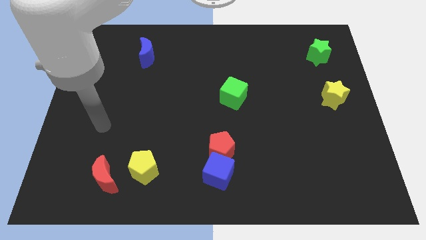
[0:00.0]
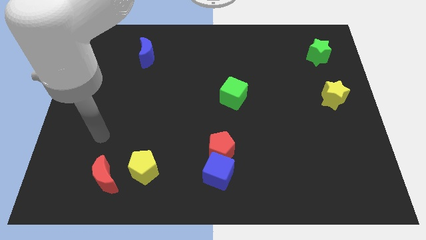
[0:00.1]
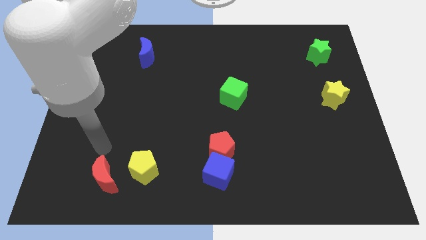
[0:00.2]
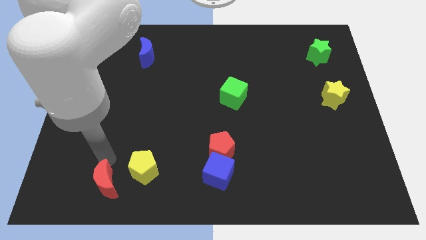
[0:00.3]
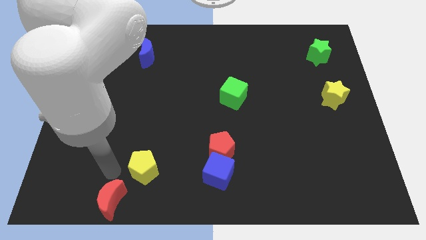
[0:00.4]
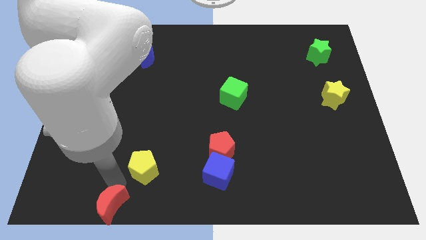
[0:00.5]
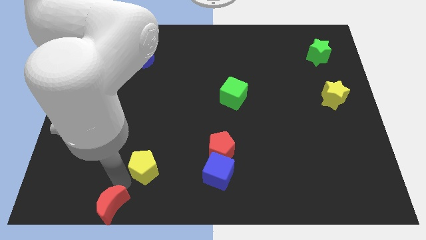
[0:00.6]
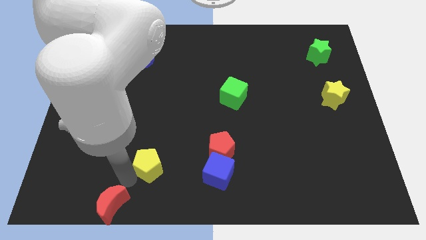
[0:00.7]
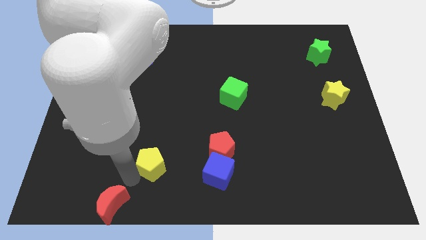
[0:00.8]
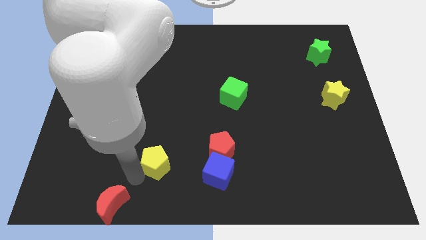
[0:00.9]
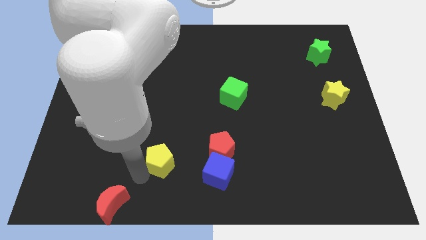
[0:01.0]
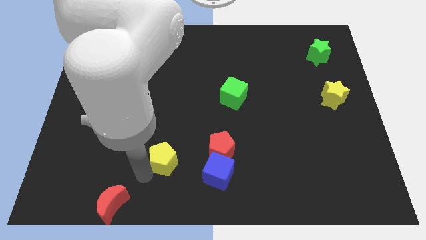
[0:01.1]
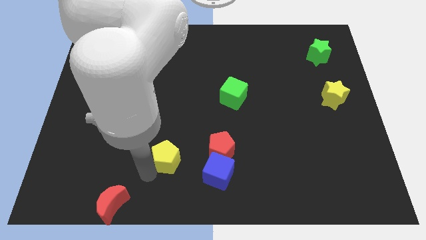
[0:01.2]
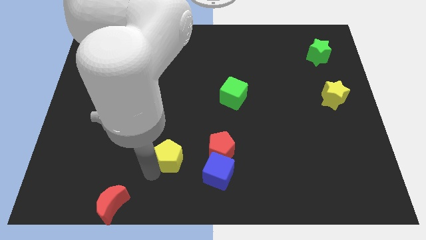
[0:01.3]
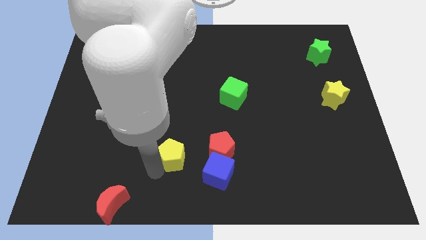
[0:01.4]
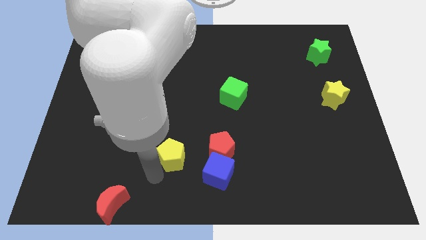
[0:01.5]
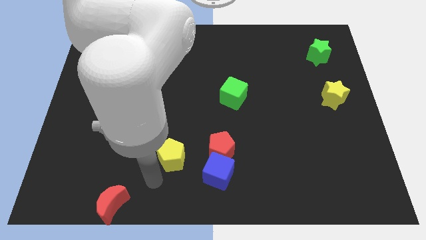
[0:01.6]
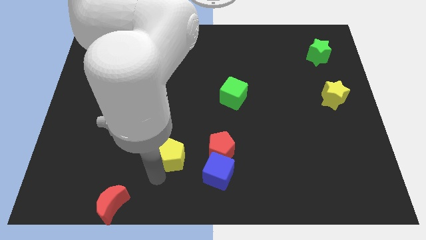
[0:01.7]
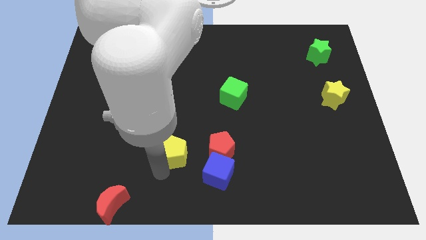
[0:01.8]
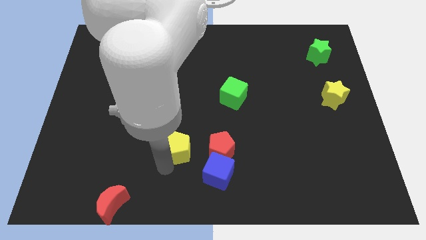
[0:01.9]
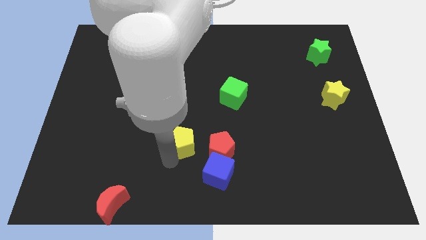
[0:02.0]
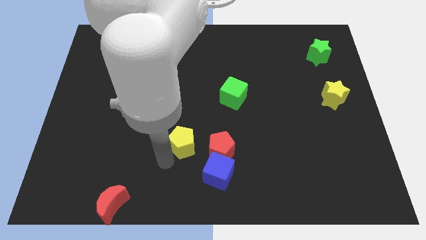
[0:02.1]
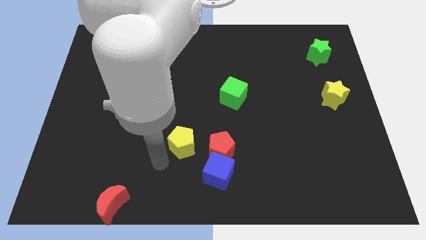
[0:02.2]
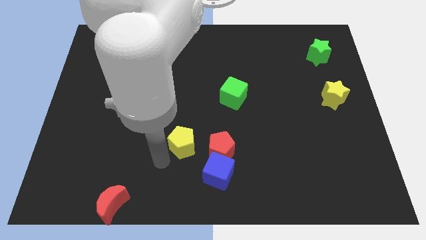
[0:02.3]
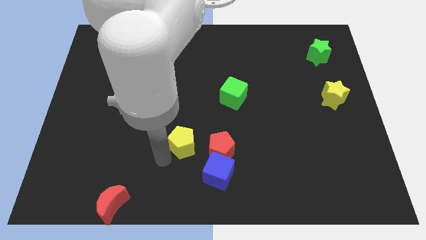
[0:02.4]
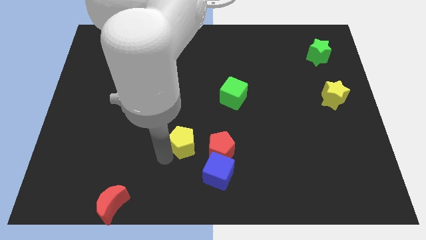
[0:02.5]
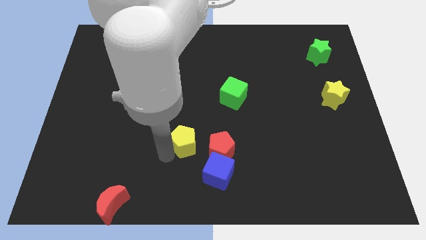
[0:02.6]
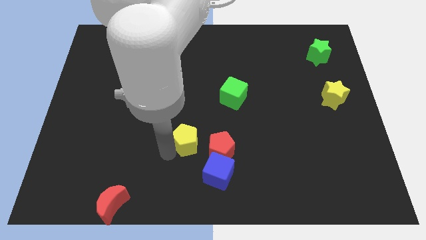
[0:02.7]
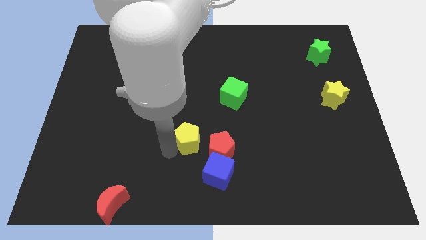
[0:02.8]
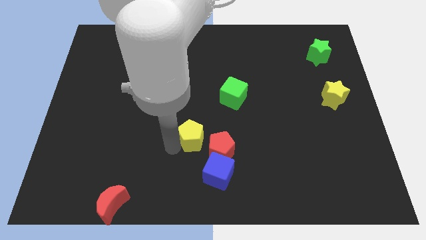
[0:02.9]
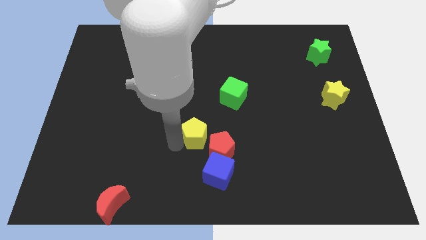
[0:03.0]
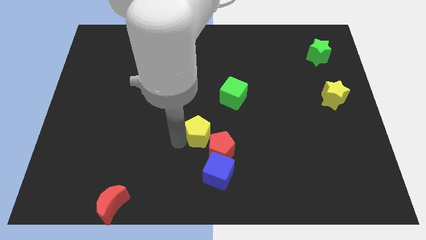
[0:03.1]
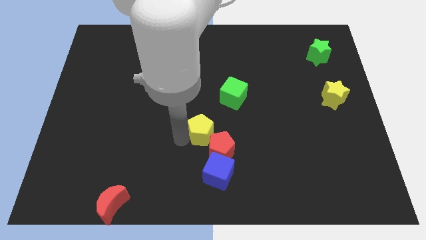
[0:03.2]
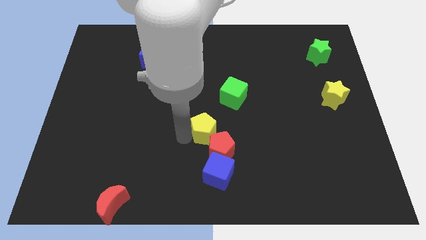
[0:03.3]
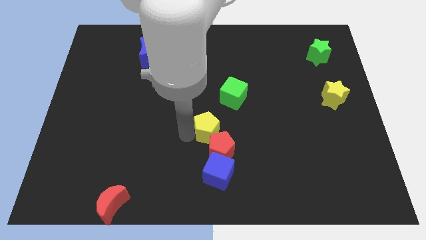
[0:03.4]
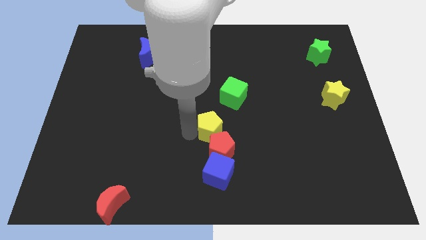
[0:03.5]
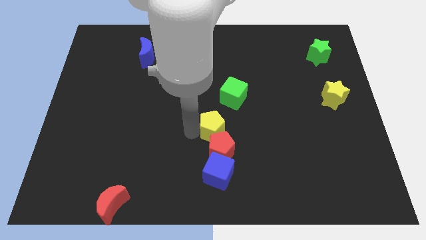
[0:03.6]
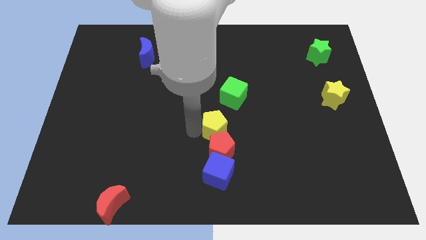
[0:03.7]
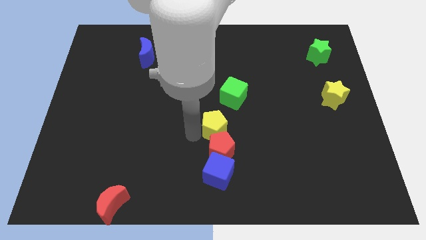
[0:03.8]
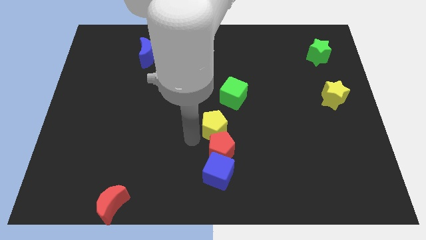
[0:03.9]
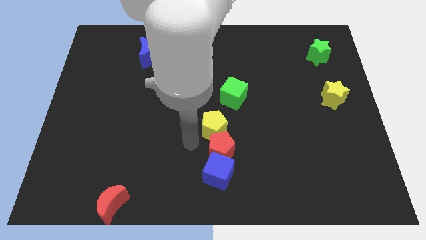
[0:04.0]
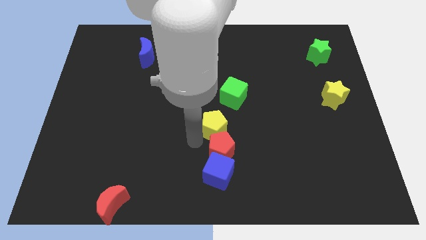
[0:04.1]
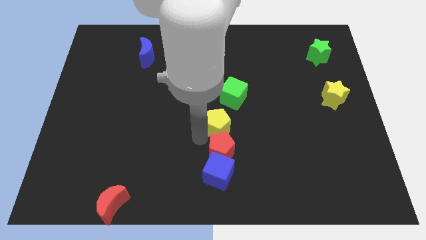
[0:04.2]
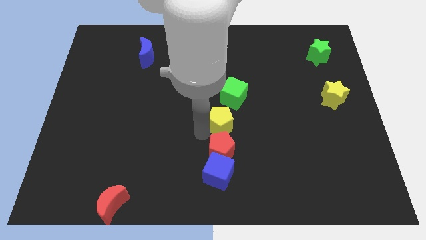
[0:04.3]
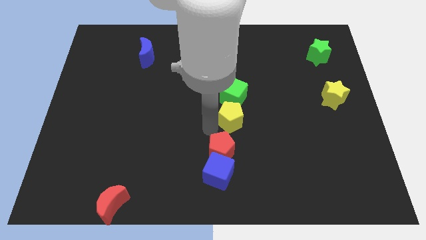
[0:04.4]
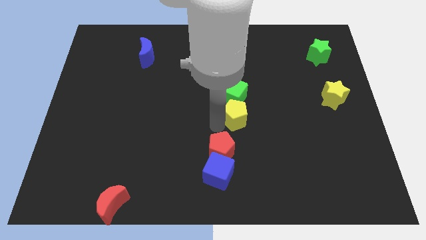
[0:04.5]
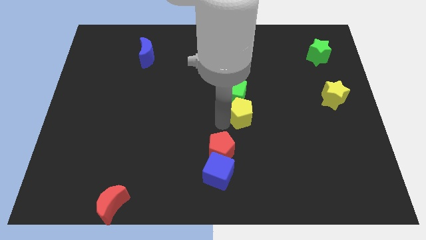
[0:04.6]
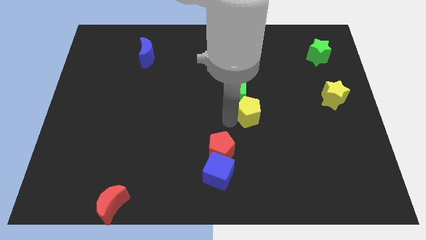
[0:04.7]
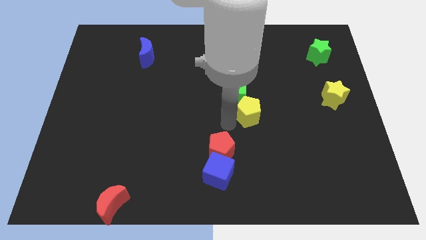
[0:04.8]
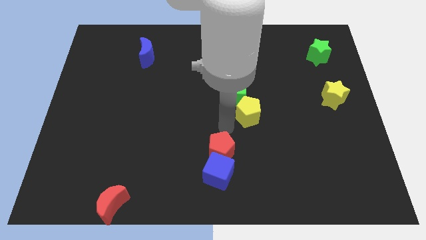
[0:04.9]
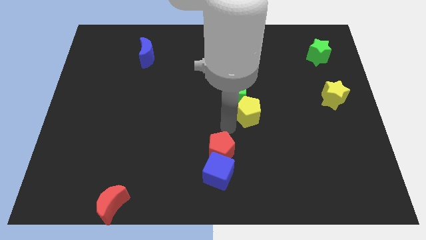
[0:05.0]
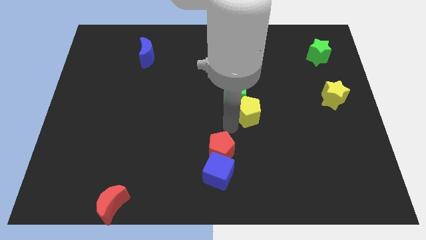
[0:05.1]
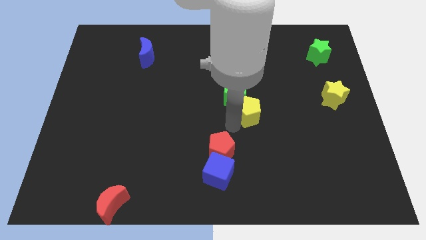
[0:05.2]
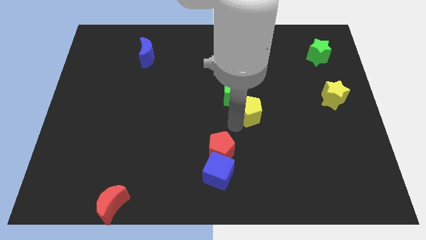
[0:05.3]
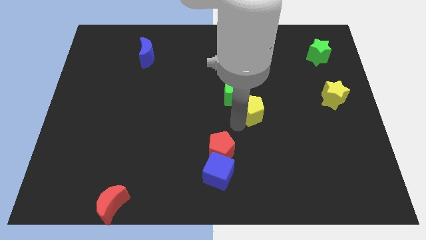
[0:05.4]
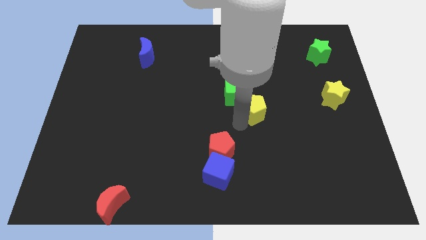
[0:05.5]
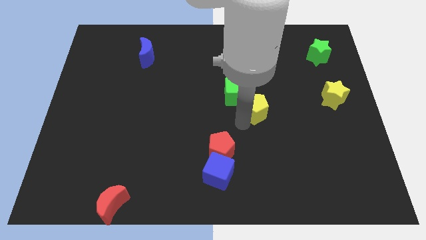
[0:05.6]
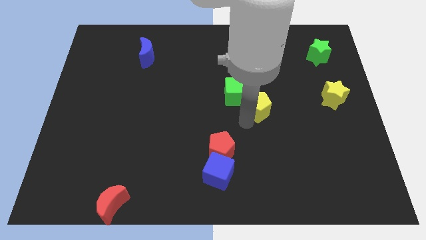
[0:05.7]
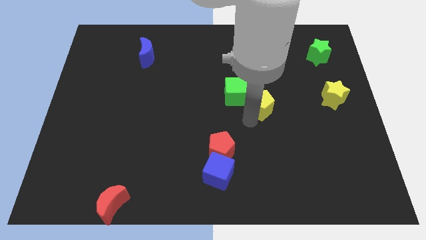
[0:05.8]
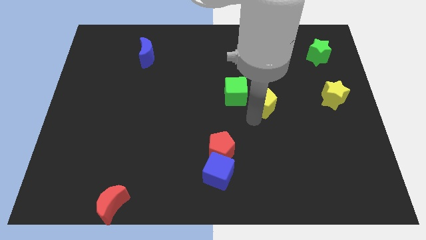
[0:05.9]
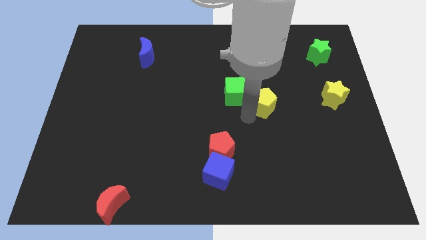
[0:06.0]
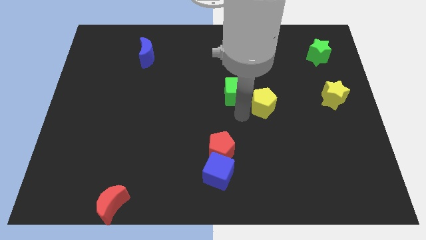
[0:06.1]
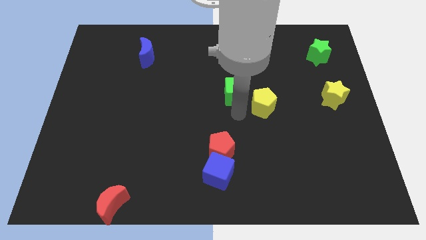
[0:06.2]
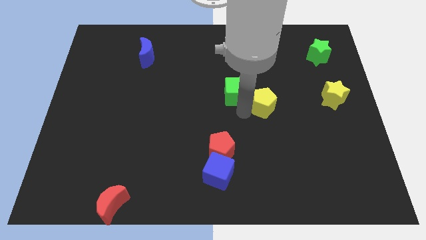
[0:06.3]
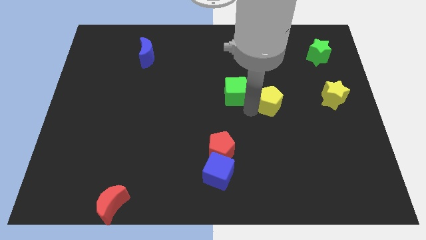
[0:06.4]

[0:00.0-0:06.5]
slide the yellow pentagon to the left of the yellow star

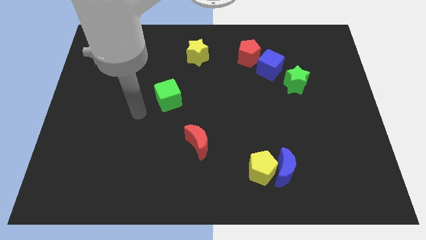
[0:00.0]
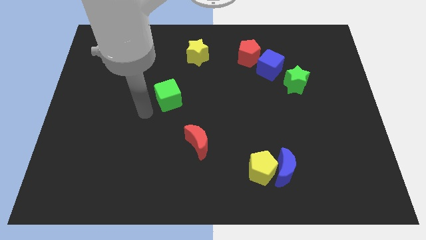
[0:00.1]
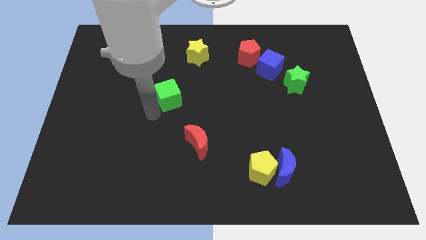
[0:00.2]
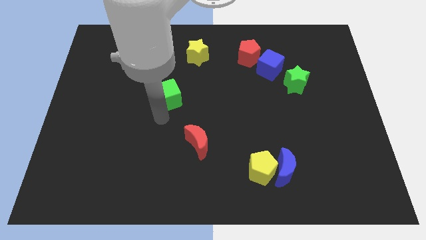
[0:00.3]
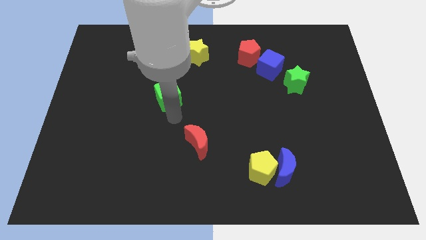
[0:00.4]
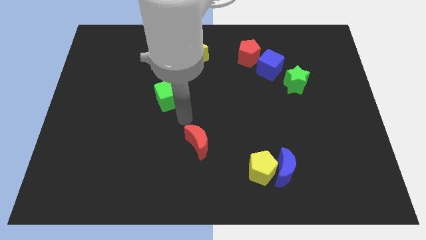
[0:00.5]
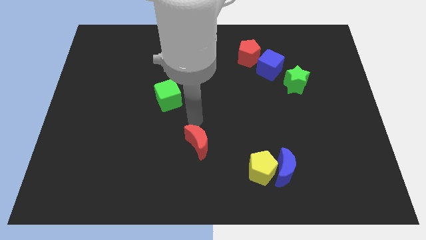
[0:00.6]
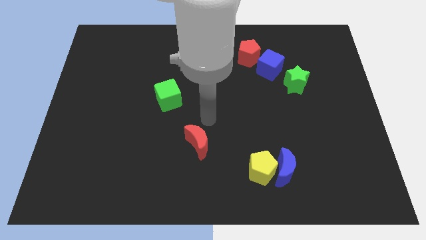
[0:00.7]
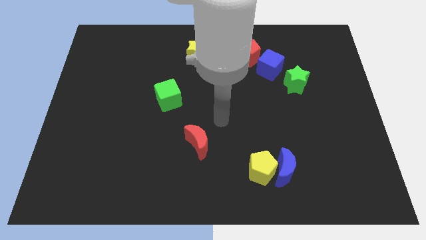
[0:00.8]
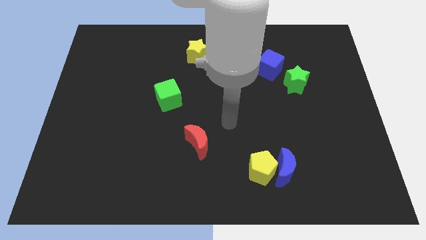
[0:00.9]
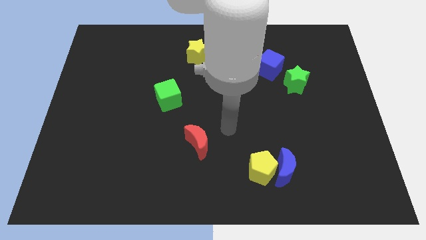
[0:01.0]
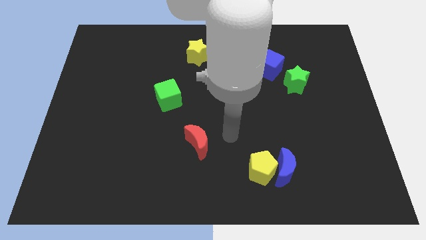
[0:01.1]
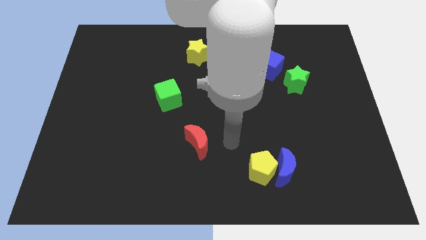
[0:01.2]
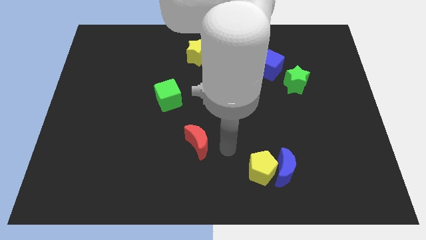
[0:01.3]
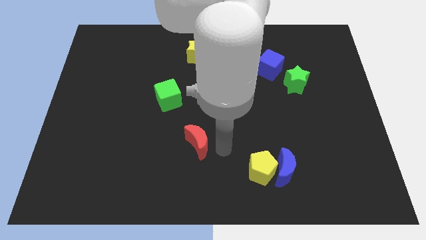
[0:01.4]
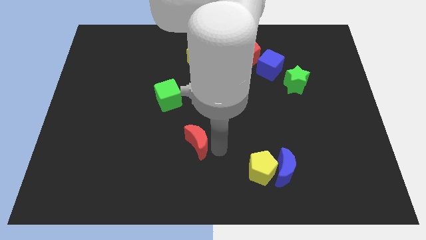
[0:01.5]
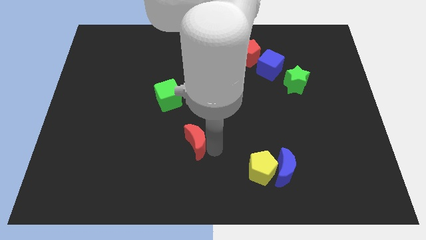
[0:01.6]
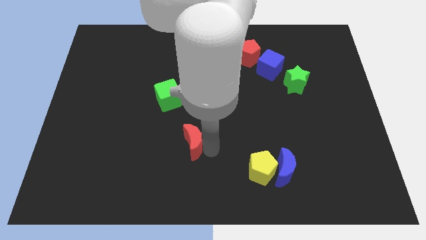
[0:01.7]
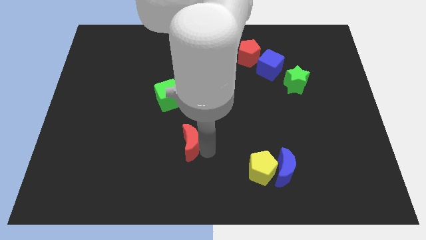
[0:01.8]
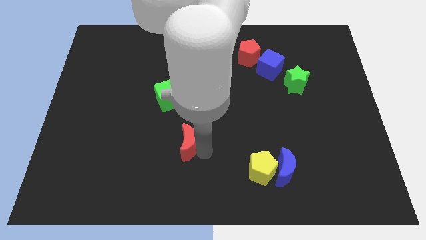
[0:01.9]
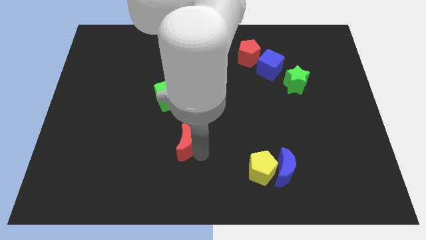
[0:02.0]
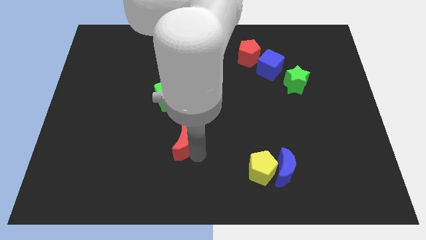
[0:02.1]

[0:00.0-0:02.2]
move the red moon to the bottom of the green cube
